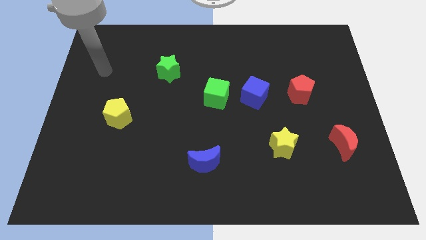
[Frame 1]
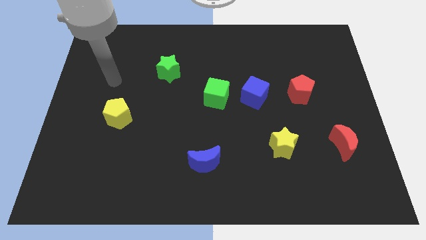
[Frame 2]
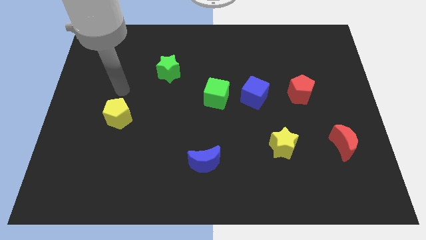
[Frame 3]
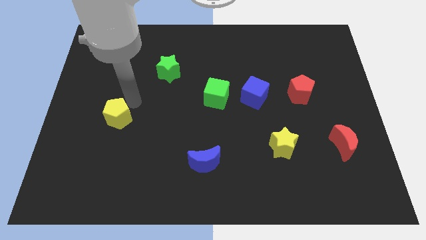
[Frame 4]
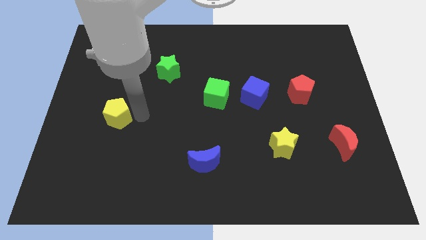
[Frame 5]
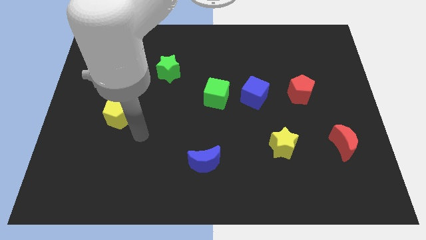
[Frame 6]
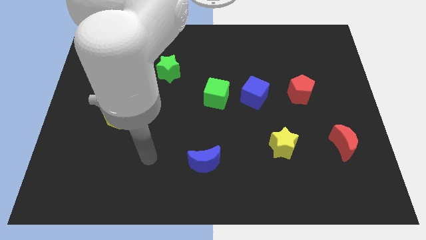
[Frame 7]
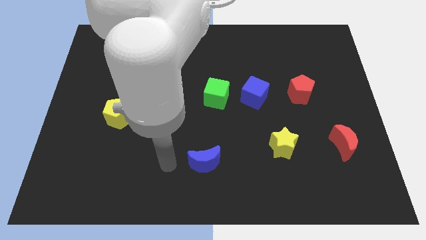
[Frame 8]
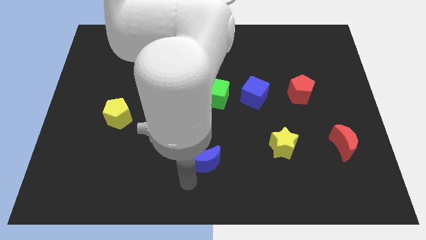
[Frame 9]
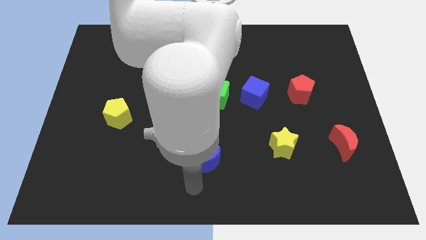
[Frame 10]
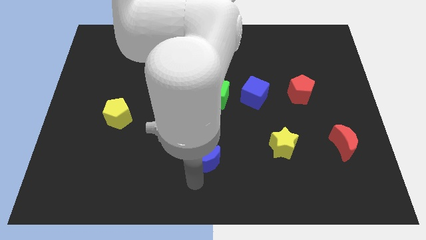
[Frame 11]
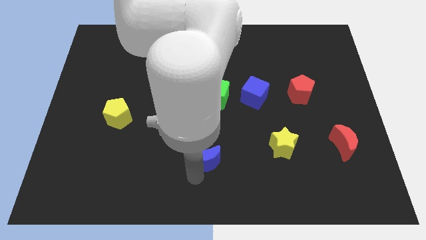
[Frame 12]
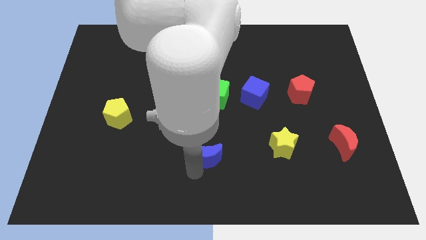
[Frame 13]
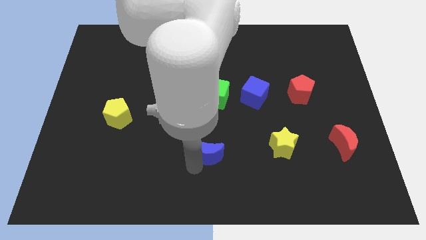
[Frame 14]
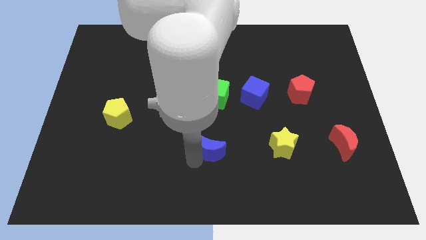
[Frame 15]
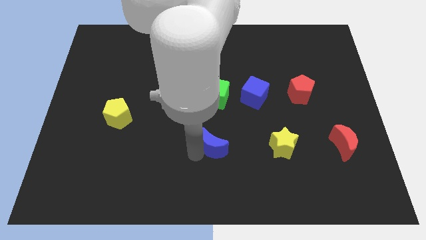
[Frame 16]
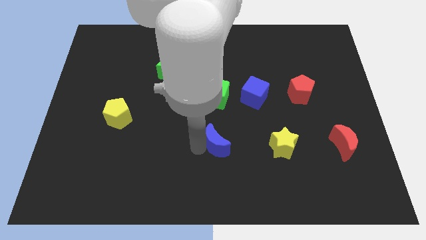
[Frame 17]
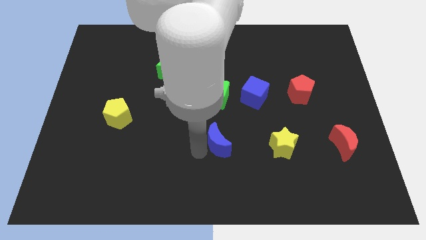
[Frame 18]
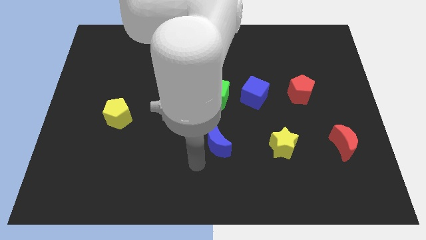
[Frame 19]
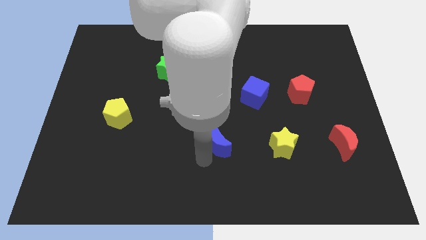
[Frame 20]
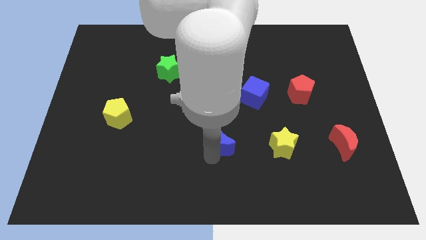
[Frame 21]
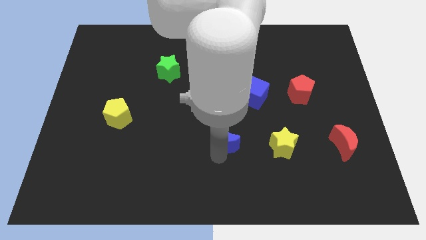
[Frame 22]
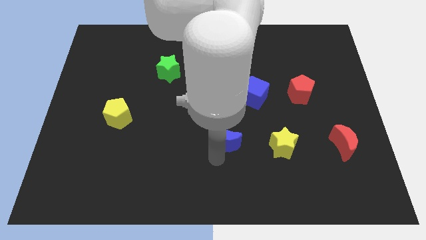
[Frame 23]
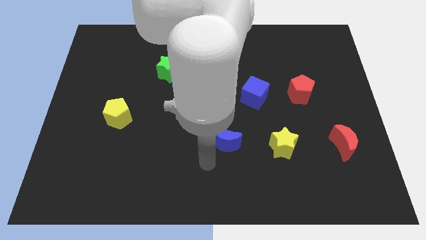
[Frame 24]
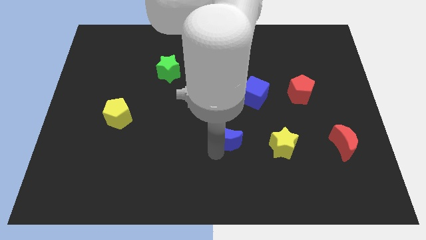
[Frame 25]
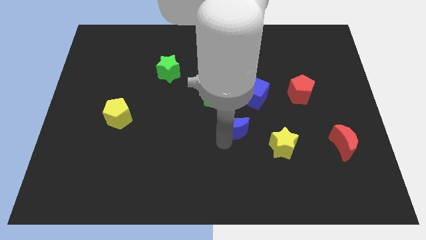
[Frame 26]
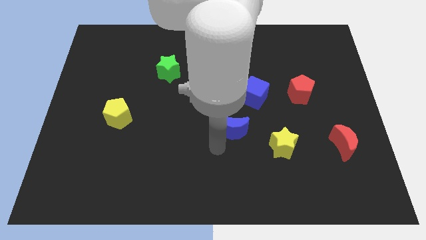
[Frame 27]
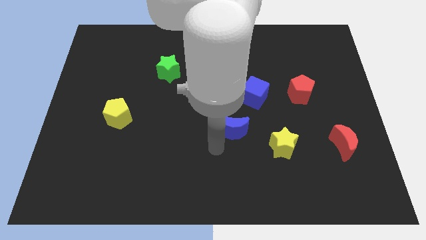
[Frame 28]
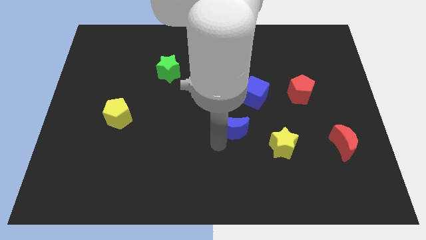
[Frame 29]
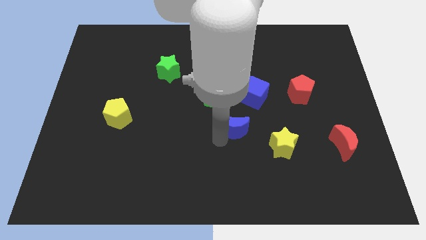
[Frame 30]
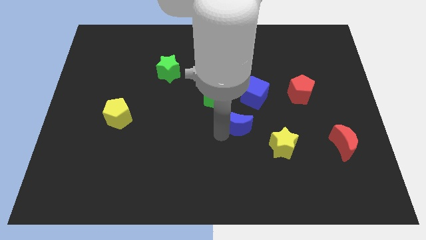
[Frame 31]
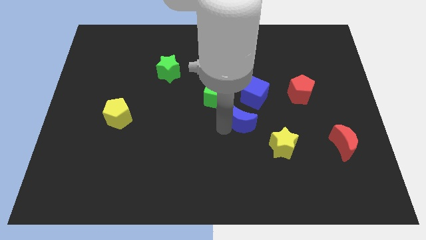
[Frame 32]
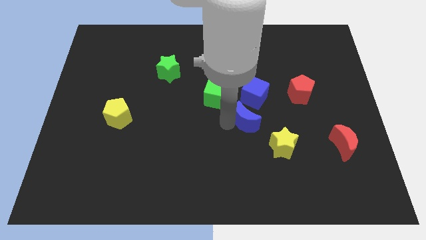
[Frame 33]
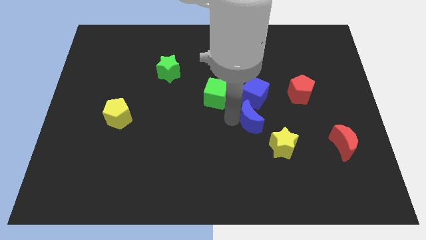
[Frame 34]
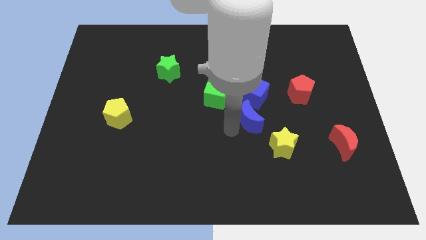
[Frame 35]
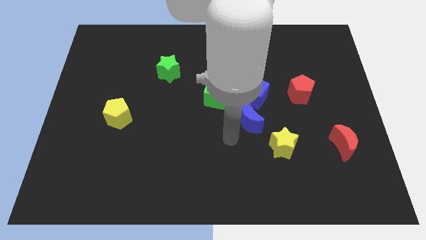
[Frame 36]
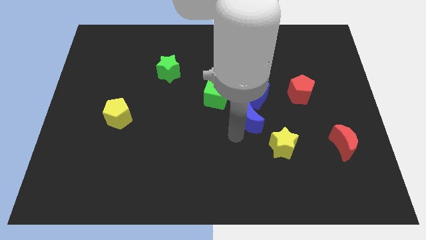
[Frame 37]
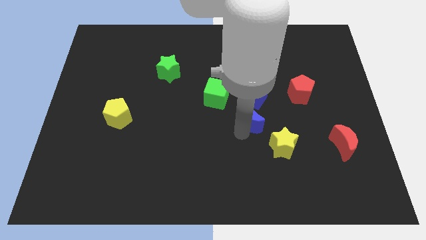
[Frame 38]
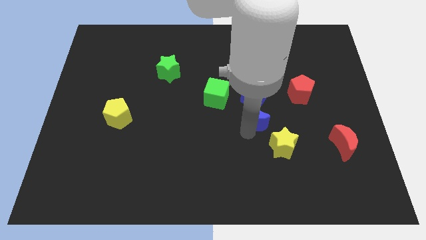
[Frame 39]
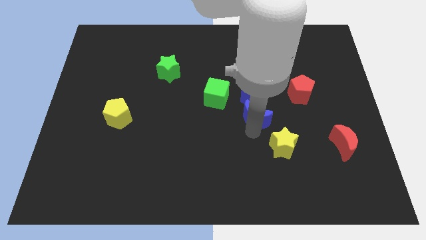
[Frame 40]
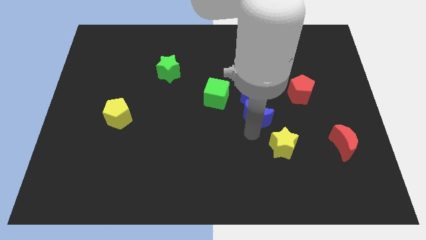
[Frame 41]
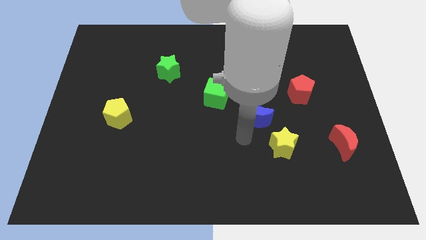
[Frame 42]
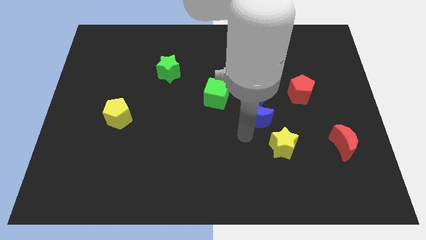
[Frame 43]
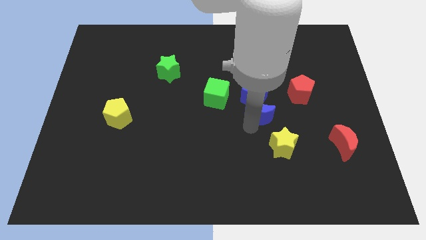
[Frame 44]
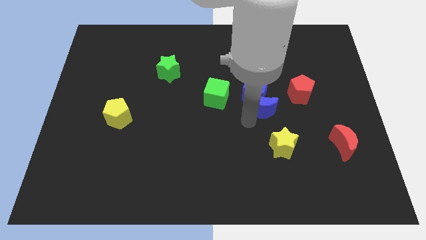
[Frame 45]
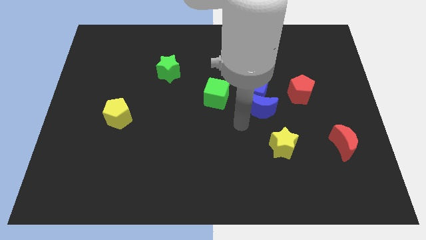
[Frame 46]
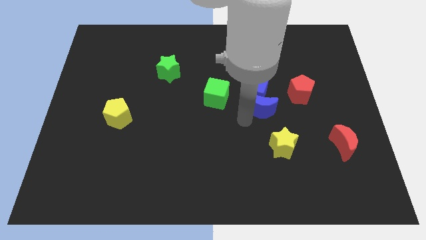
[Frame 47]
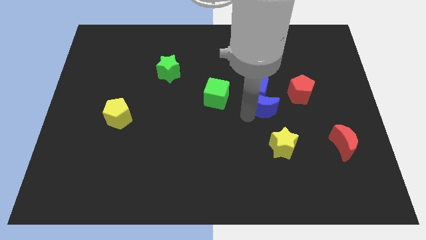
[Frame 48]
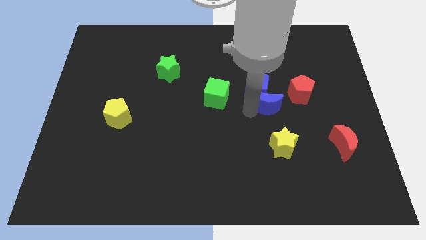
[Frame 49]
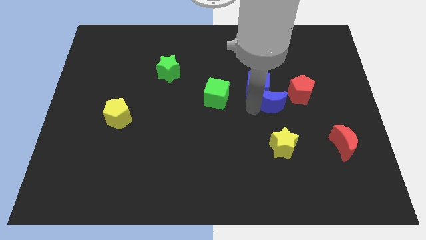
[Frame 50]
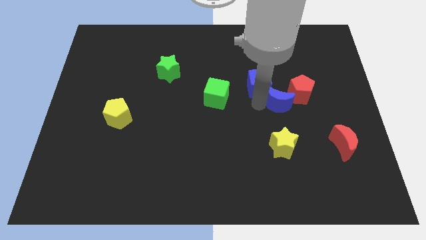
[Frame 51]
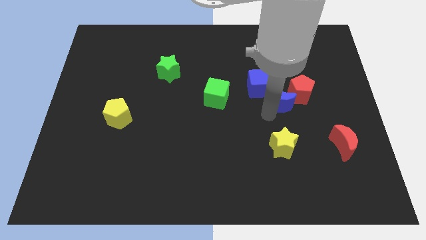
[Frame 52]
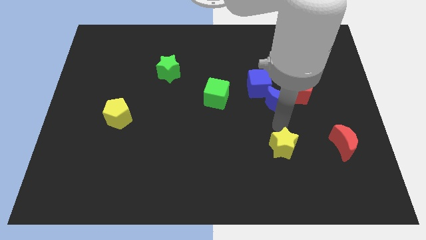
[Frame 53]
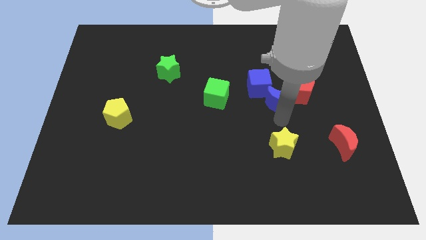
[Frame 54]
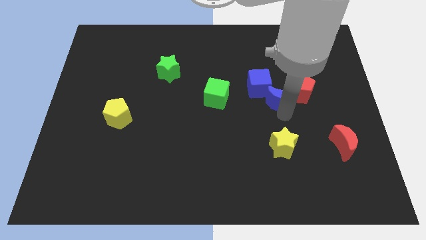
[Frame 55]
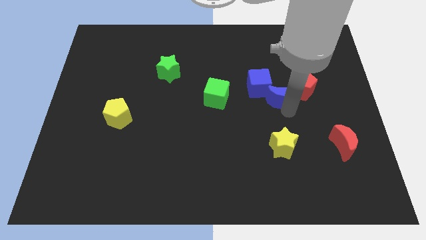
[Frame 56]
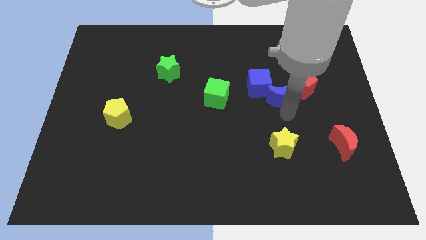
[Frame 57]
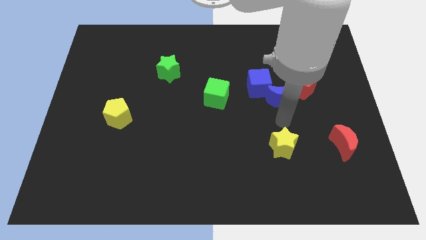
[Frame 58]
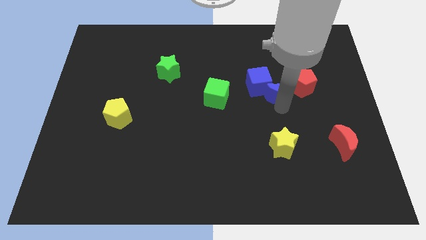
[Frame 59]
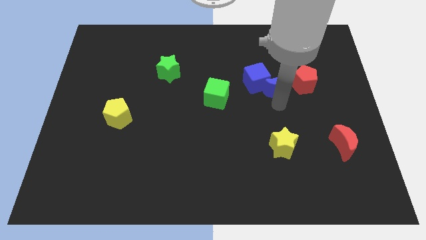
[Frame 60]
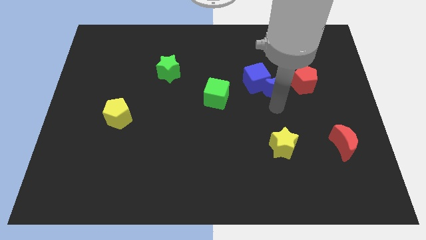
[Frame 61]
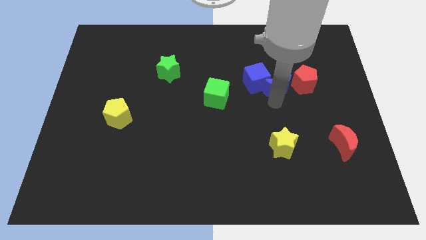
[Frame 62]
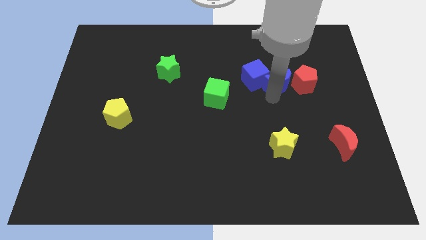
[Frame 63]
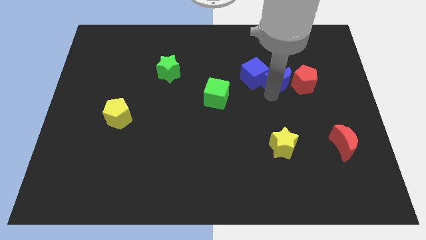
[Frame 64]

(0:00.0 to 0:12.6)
push the blue moon to the top left side of the red pentagon

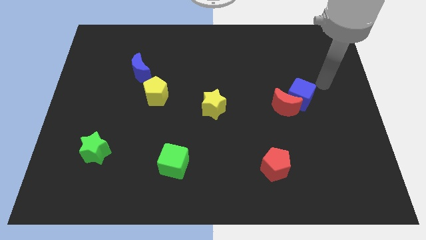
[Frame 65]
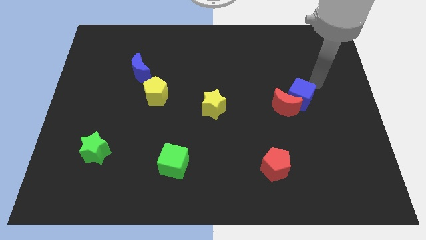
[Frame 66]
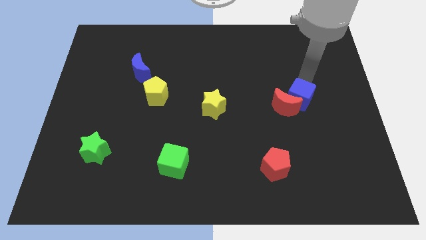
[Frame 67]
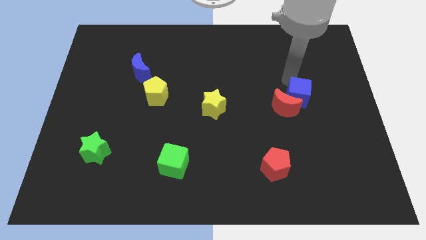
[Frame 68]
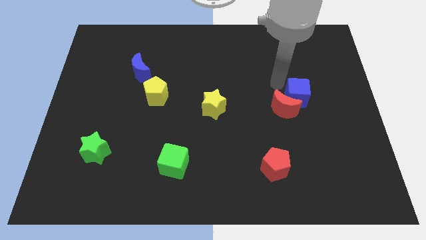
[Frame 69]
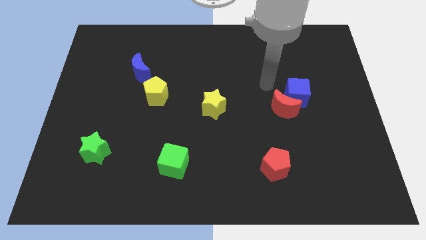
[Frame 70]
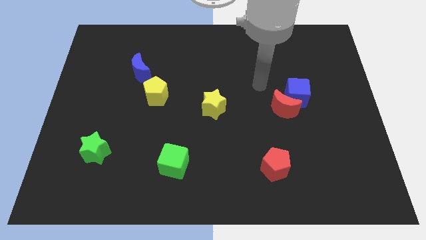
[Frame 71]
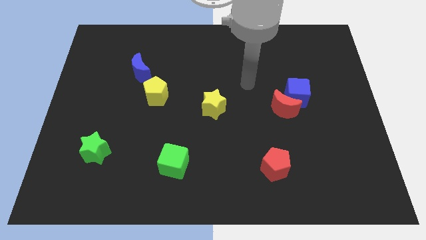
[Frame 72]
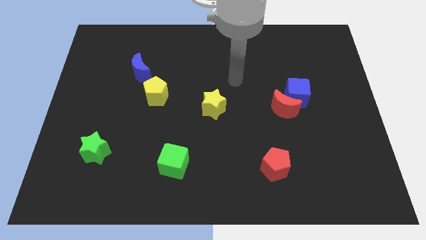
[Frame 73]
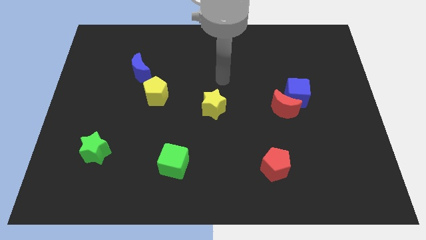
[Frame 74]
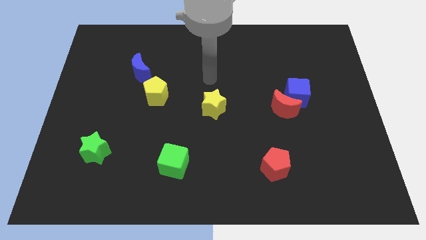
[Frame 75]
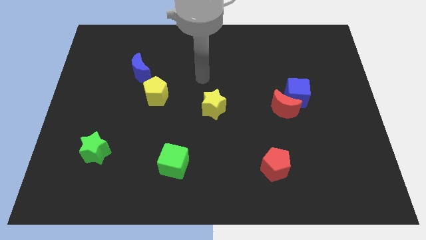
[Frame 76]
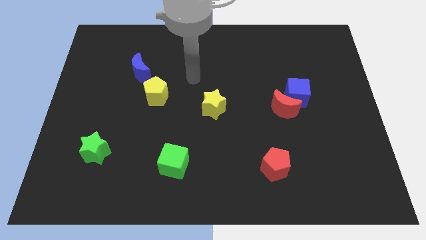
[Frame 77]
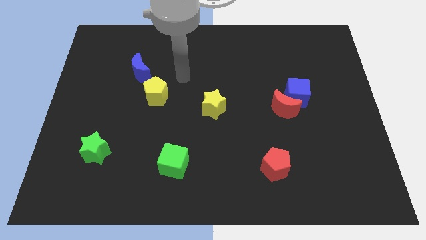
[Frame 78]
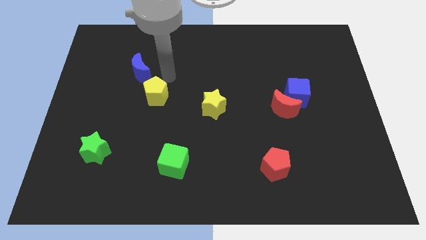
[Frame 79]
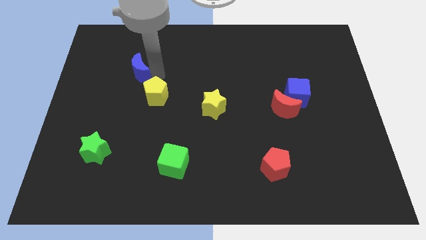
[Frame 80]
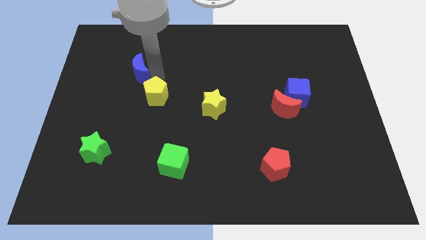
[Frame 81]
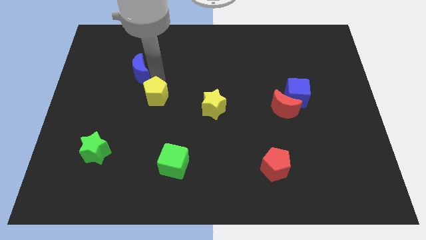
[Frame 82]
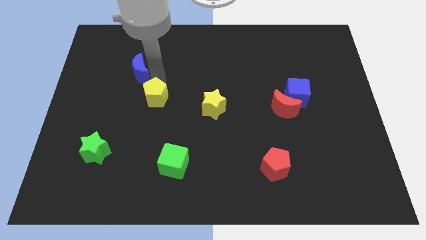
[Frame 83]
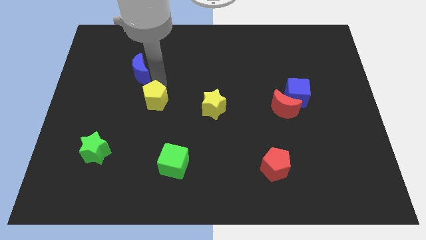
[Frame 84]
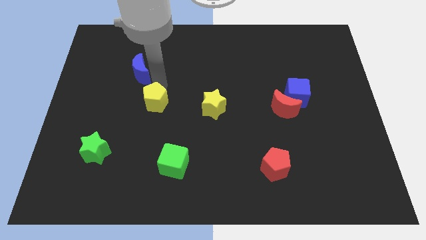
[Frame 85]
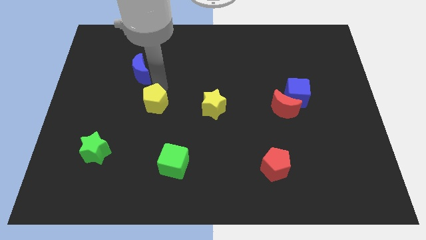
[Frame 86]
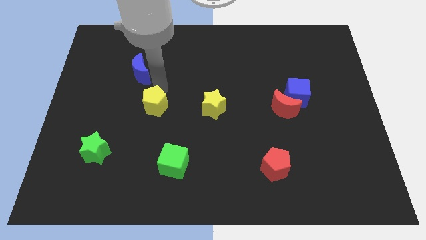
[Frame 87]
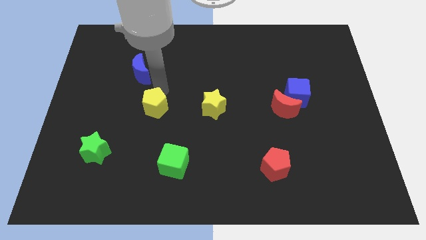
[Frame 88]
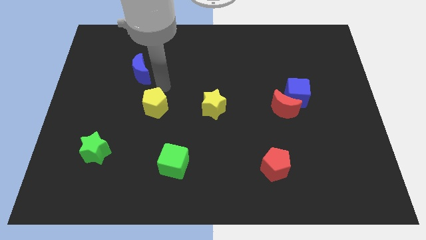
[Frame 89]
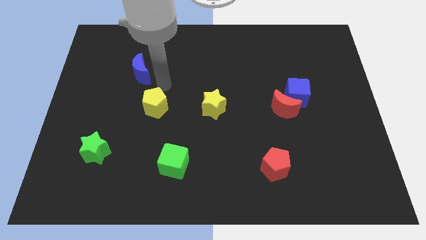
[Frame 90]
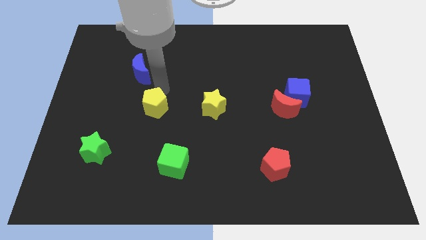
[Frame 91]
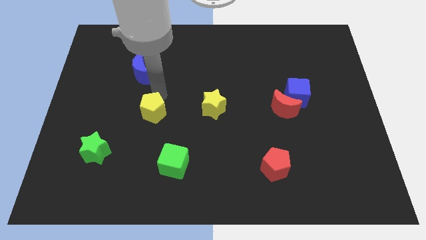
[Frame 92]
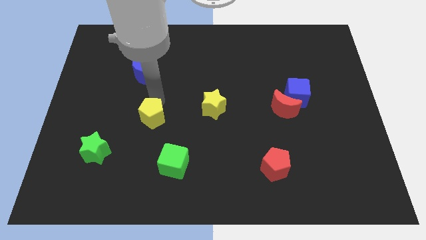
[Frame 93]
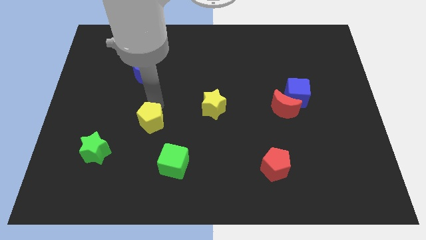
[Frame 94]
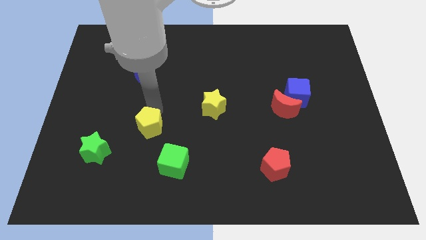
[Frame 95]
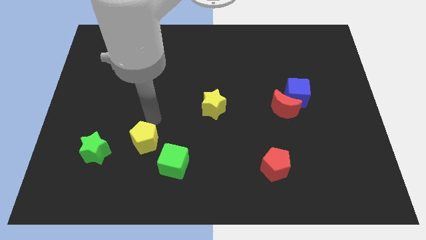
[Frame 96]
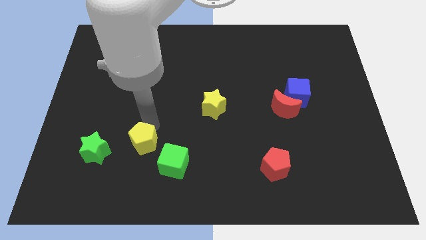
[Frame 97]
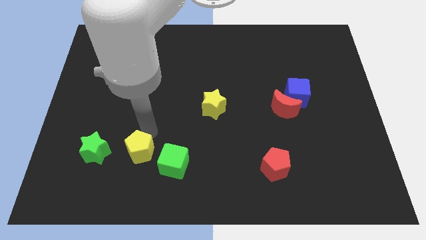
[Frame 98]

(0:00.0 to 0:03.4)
move the yellow pentagon left of the green cube
